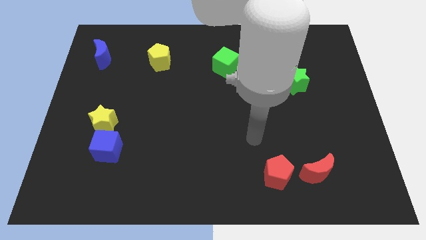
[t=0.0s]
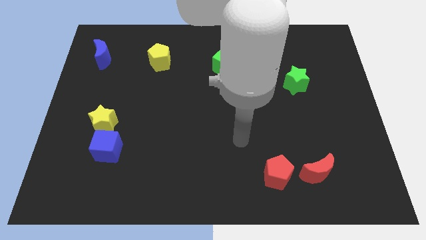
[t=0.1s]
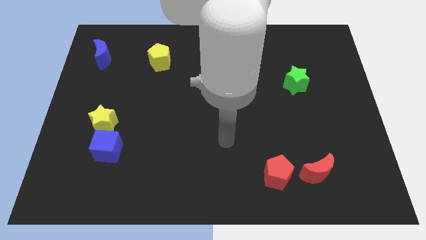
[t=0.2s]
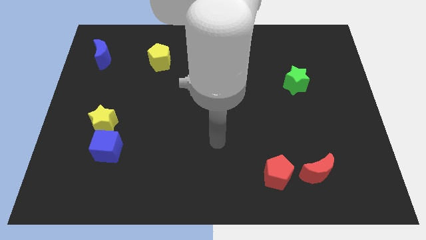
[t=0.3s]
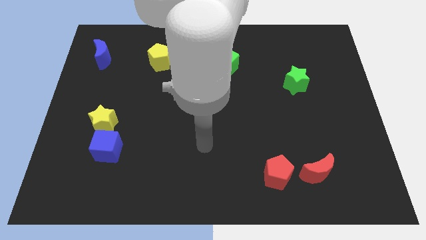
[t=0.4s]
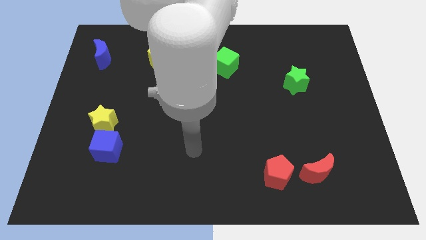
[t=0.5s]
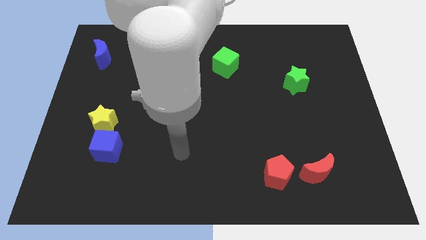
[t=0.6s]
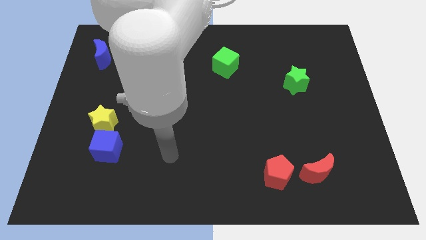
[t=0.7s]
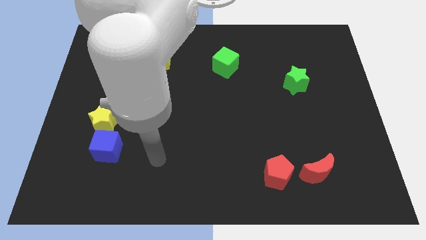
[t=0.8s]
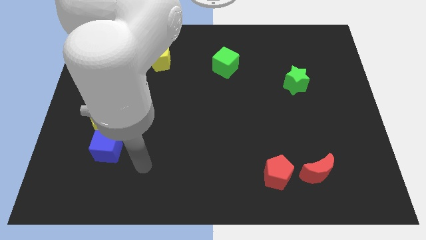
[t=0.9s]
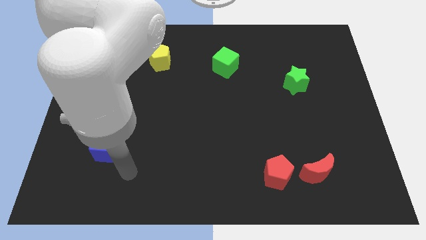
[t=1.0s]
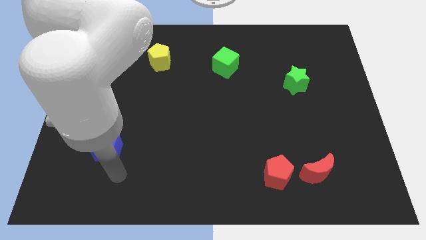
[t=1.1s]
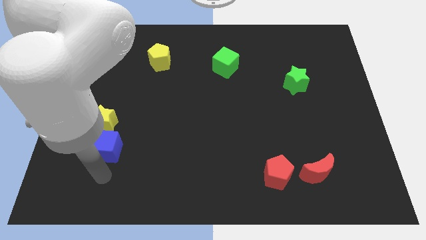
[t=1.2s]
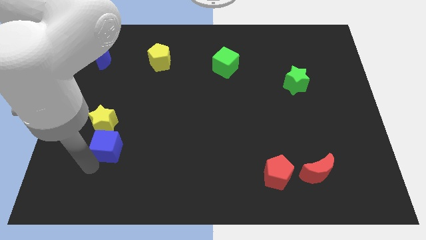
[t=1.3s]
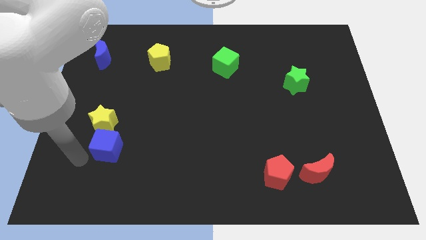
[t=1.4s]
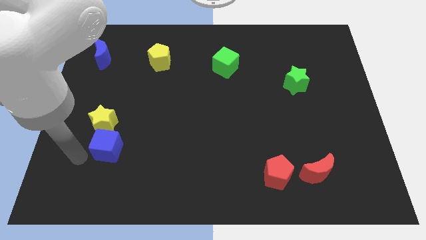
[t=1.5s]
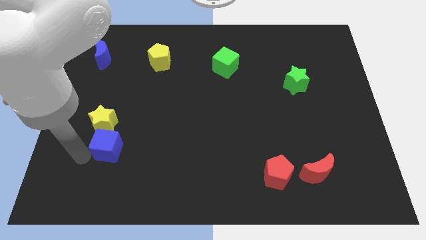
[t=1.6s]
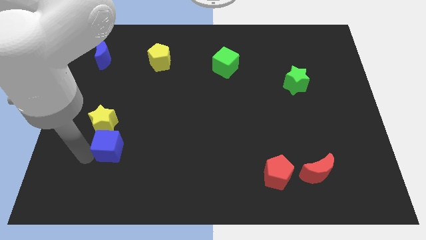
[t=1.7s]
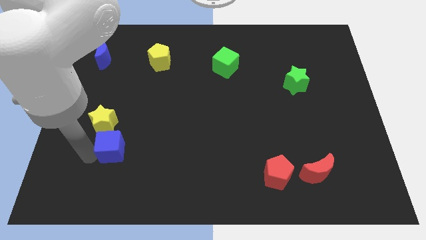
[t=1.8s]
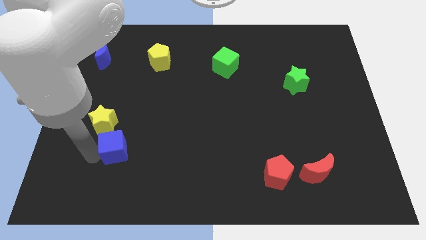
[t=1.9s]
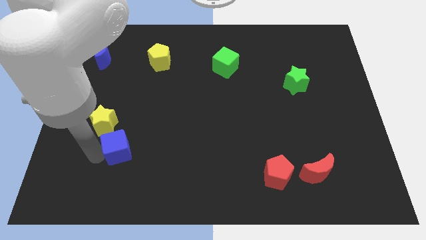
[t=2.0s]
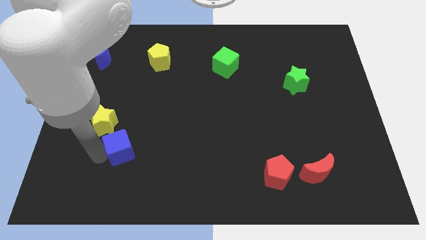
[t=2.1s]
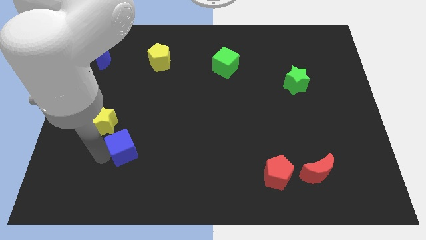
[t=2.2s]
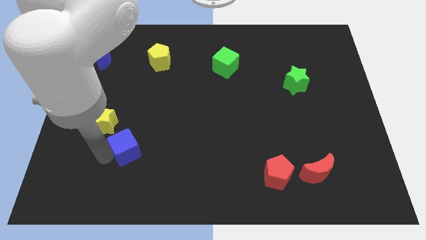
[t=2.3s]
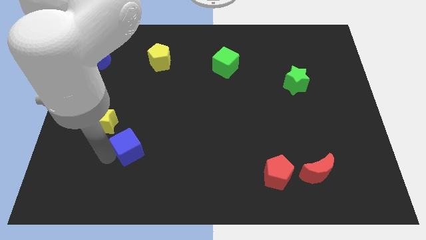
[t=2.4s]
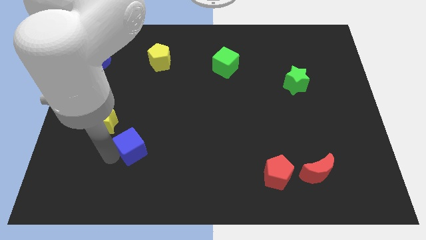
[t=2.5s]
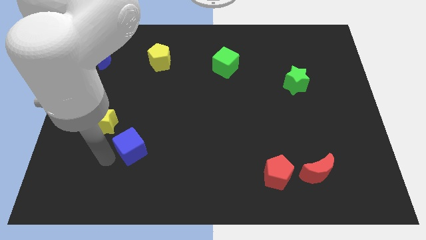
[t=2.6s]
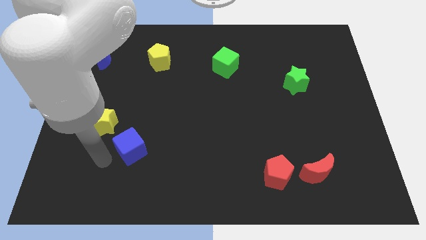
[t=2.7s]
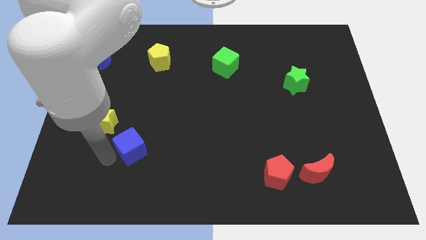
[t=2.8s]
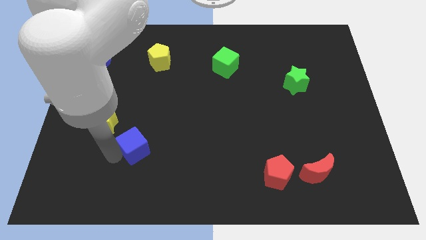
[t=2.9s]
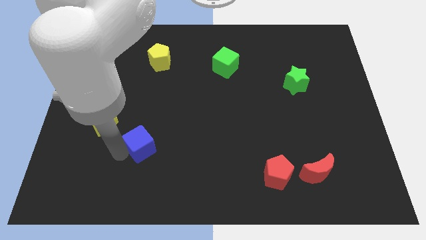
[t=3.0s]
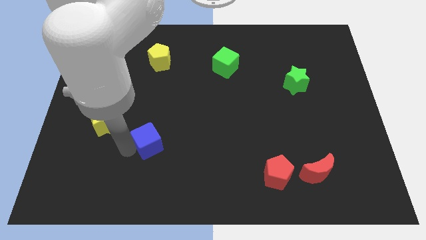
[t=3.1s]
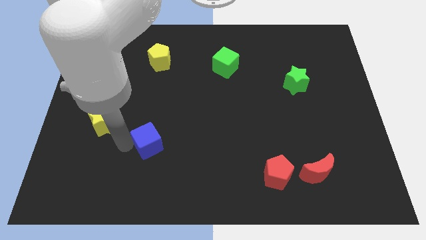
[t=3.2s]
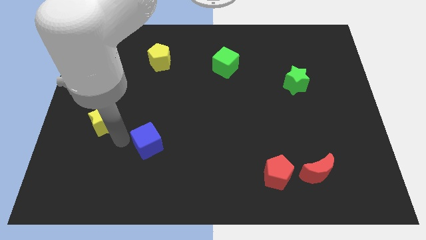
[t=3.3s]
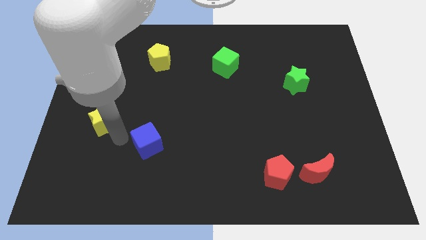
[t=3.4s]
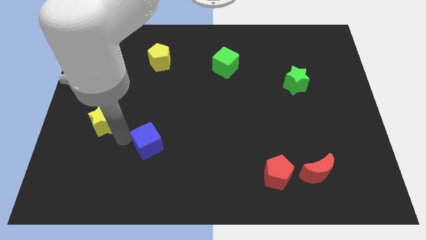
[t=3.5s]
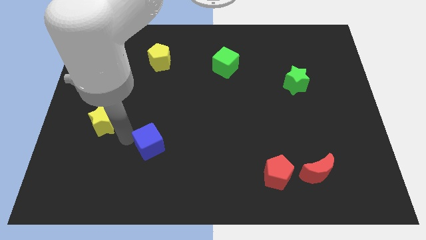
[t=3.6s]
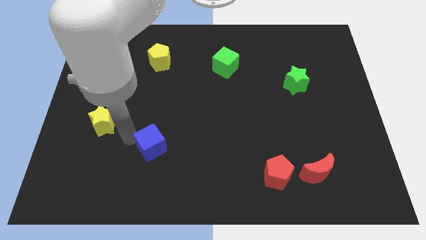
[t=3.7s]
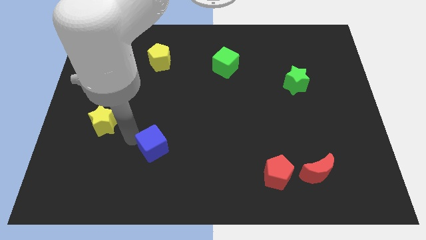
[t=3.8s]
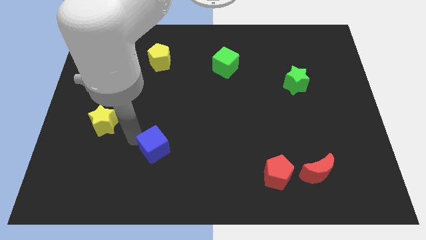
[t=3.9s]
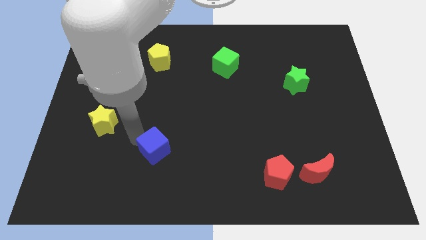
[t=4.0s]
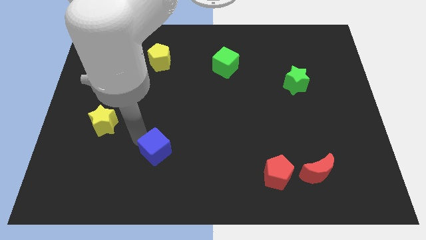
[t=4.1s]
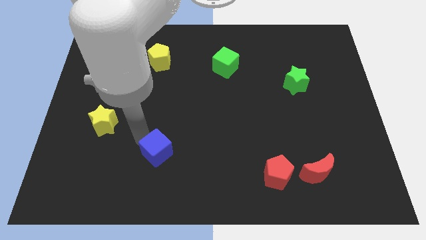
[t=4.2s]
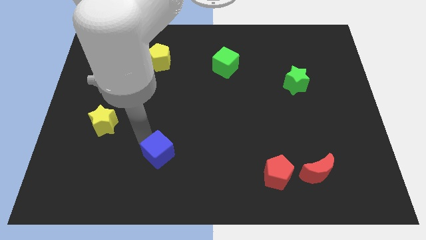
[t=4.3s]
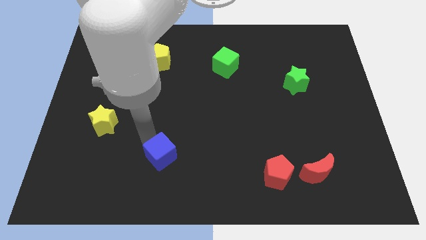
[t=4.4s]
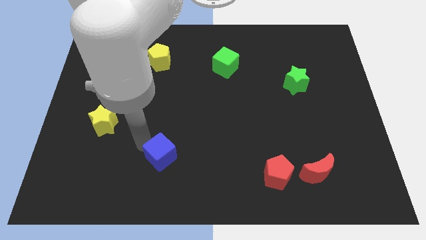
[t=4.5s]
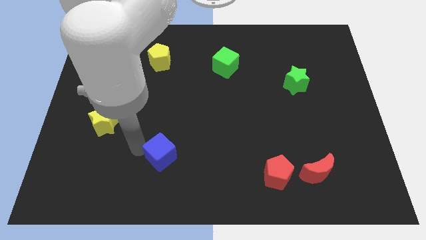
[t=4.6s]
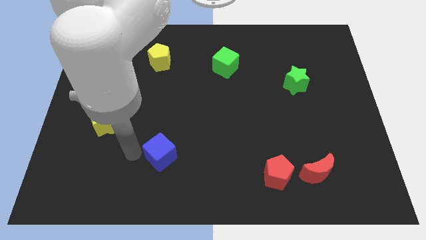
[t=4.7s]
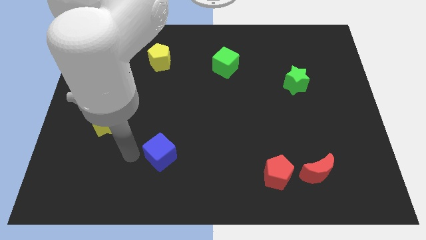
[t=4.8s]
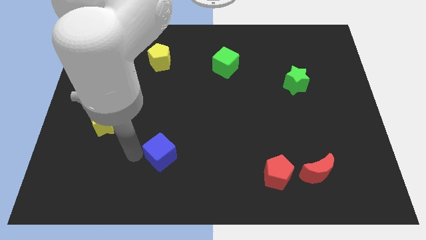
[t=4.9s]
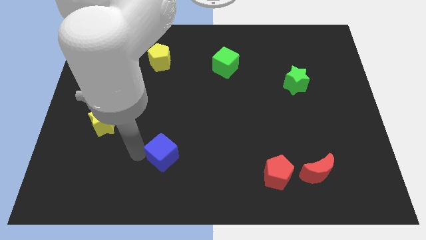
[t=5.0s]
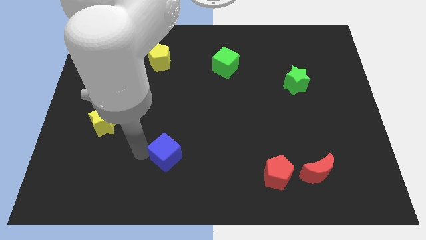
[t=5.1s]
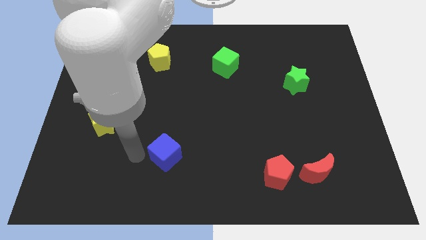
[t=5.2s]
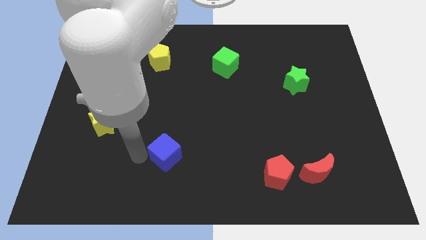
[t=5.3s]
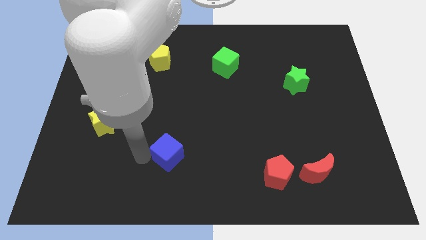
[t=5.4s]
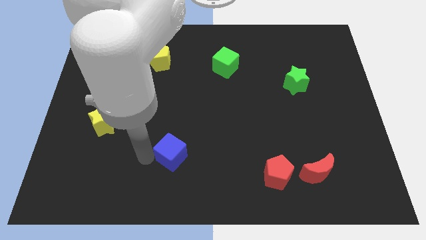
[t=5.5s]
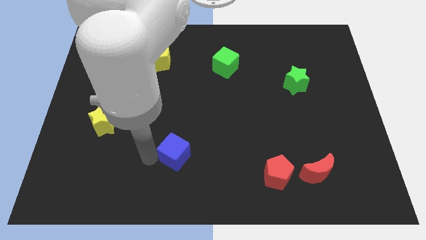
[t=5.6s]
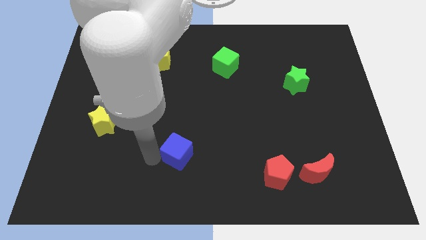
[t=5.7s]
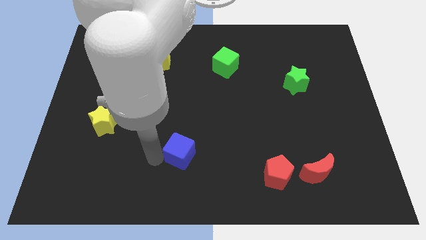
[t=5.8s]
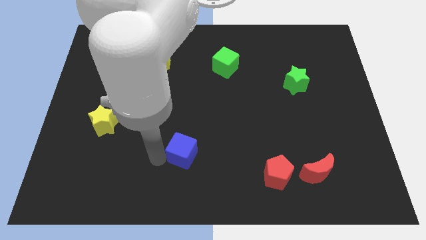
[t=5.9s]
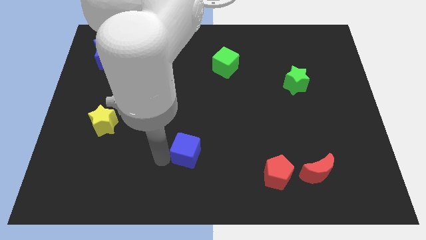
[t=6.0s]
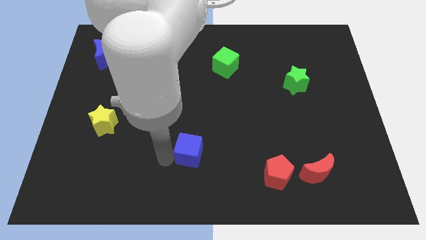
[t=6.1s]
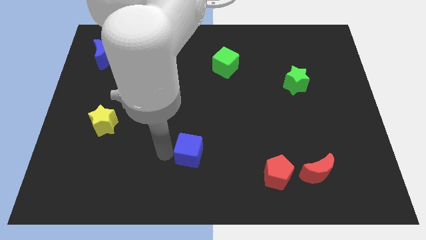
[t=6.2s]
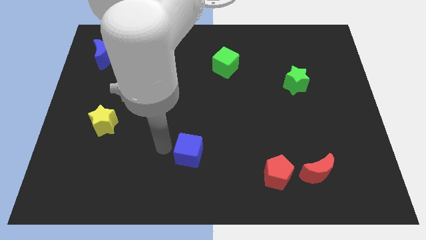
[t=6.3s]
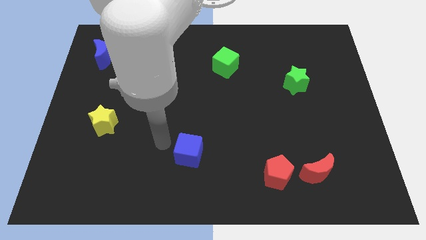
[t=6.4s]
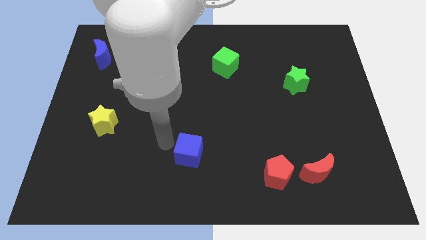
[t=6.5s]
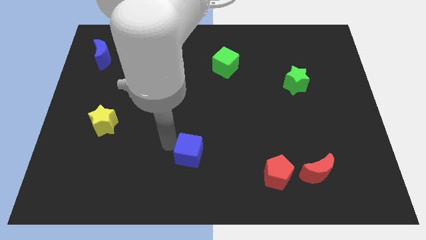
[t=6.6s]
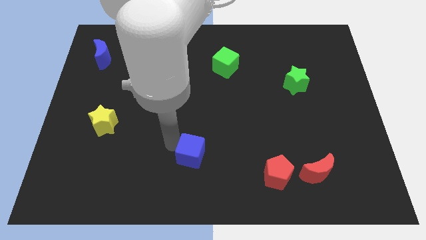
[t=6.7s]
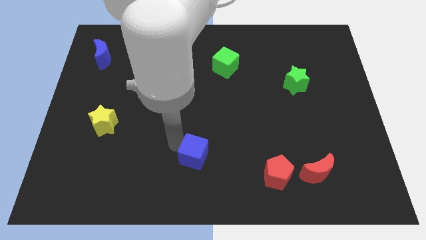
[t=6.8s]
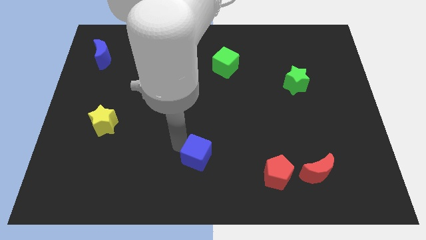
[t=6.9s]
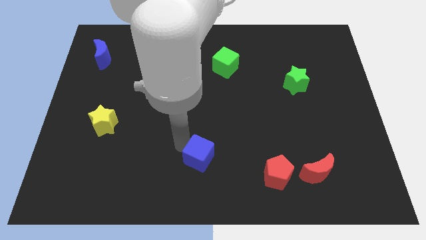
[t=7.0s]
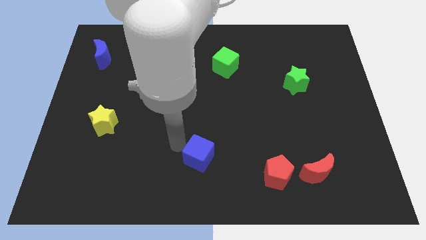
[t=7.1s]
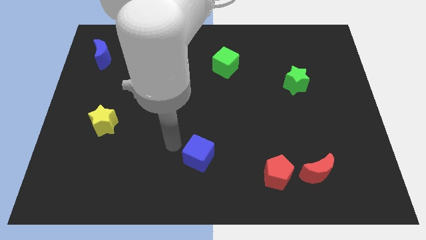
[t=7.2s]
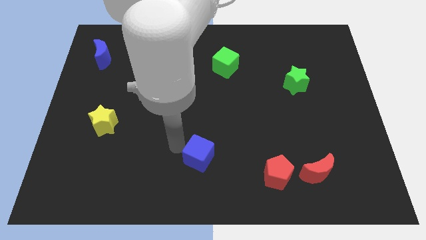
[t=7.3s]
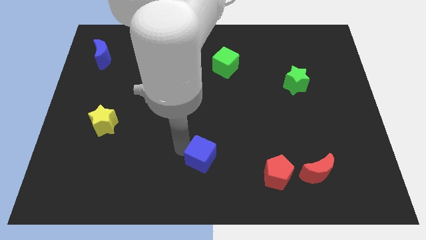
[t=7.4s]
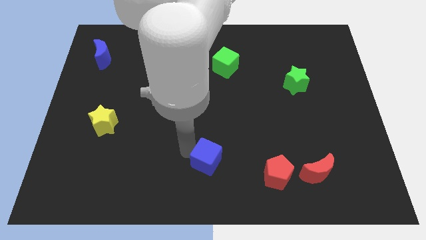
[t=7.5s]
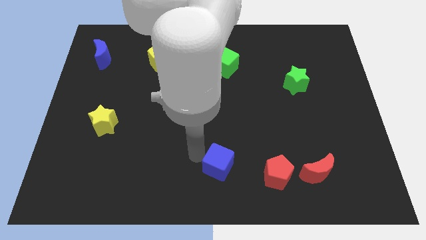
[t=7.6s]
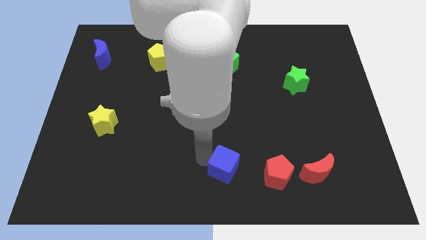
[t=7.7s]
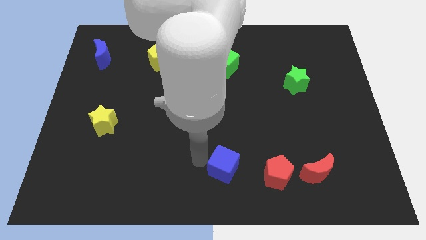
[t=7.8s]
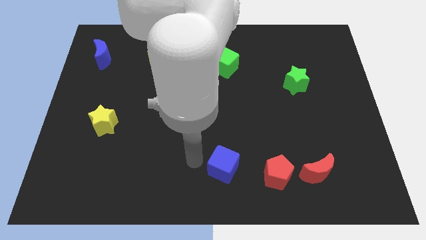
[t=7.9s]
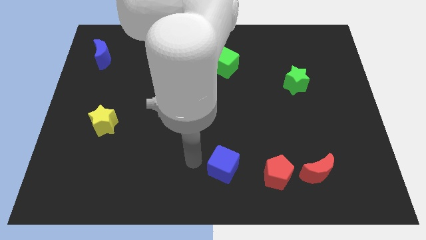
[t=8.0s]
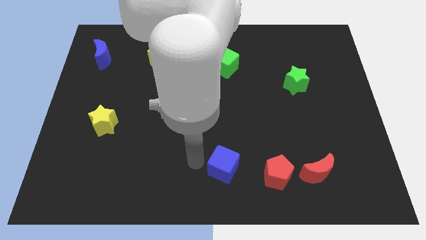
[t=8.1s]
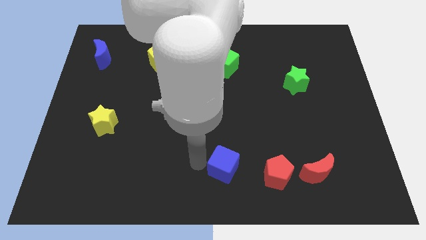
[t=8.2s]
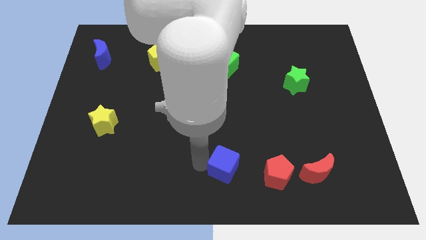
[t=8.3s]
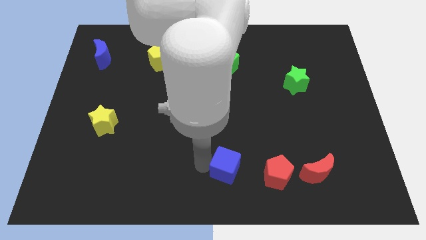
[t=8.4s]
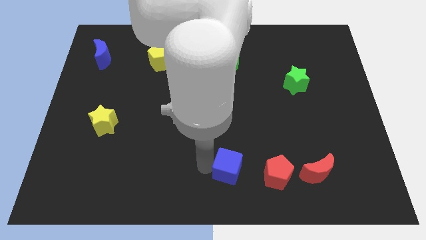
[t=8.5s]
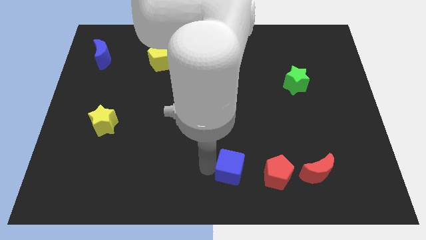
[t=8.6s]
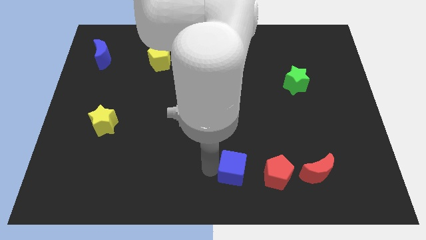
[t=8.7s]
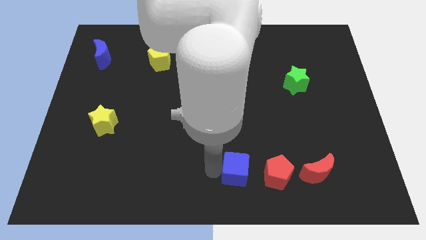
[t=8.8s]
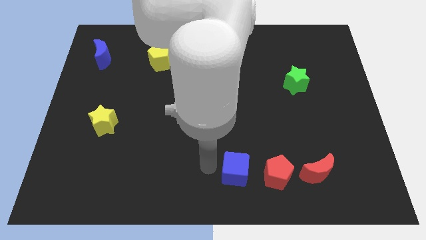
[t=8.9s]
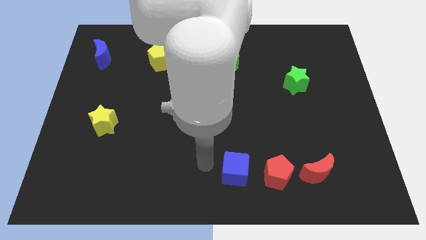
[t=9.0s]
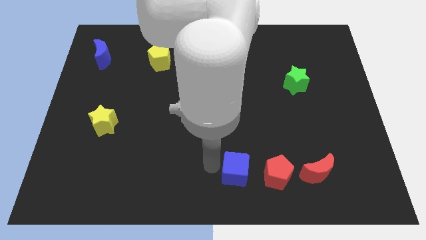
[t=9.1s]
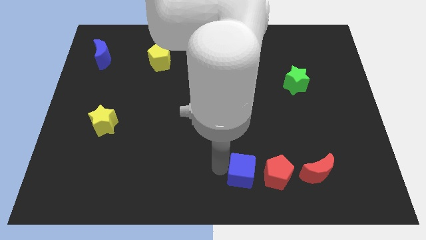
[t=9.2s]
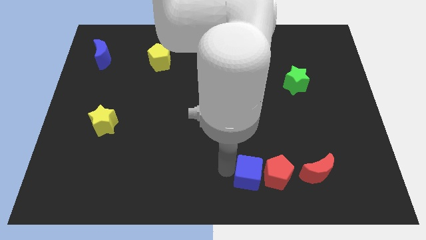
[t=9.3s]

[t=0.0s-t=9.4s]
put the blue cube next to the red pentagon
